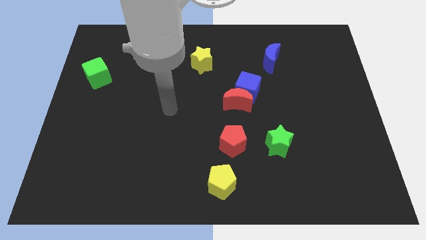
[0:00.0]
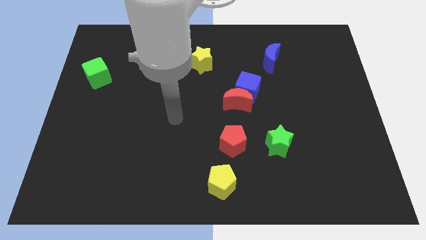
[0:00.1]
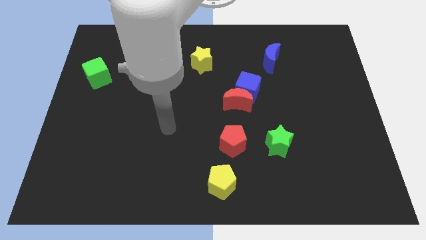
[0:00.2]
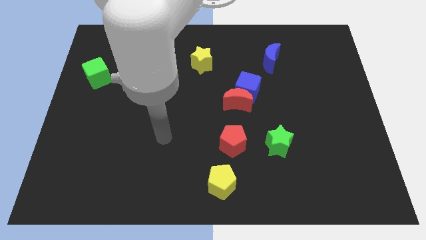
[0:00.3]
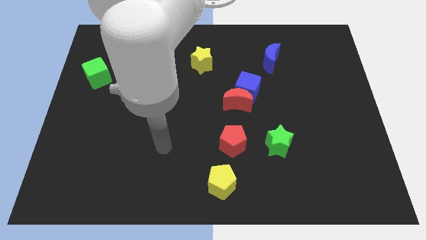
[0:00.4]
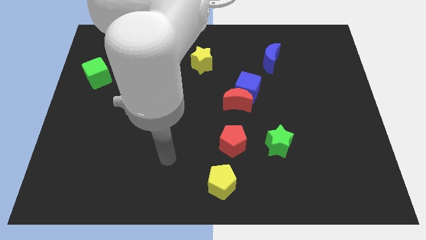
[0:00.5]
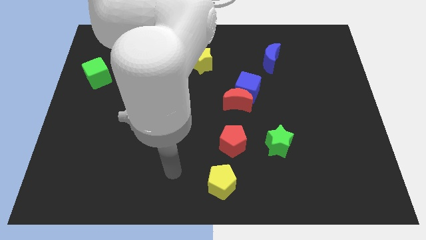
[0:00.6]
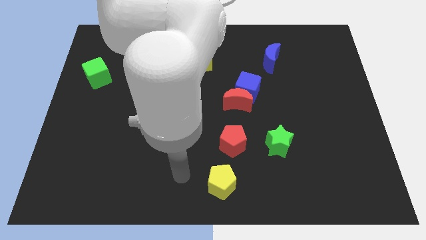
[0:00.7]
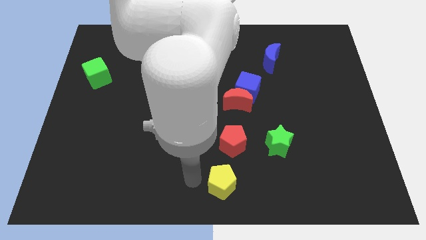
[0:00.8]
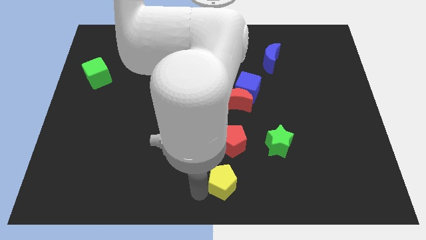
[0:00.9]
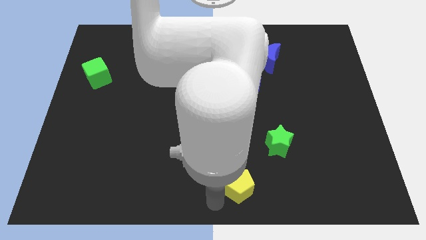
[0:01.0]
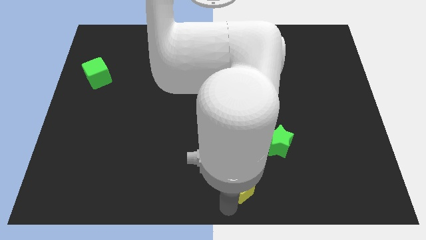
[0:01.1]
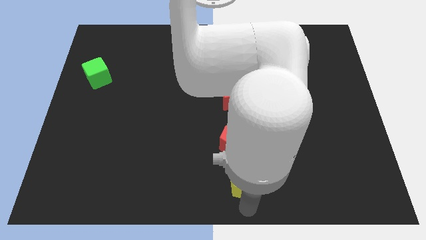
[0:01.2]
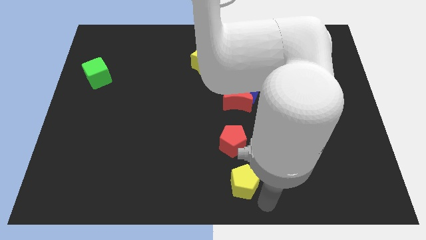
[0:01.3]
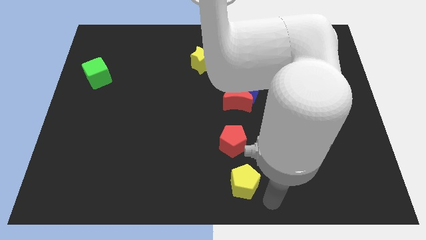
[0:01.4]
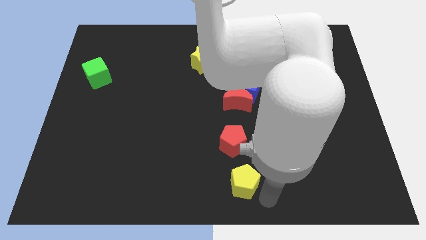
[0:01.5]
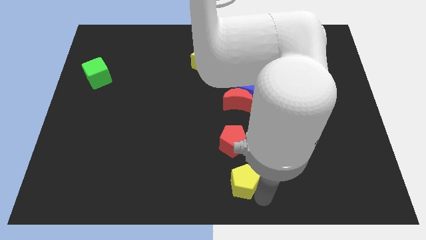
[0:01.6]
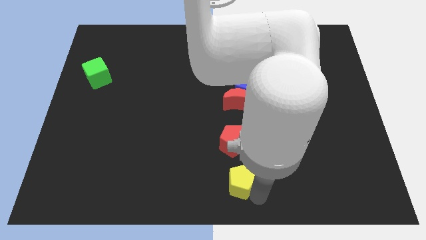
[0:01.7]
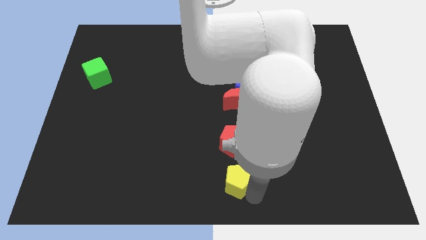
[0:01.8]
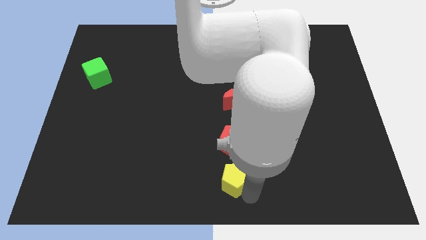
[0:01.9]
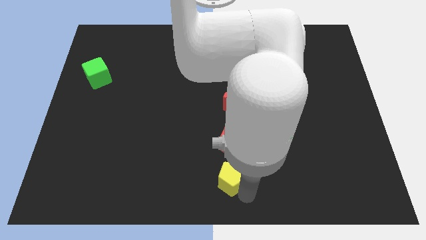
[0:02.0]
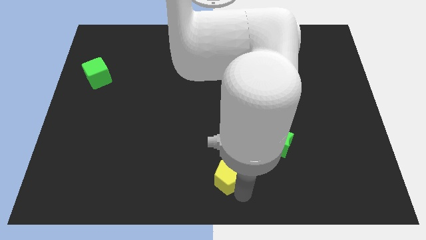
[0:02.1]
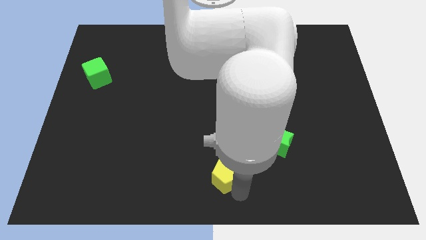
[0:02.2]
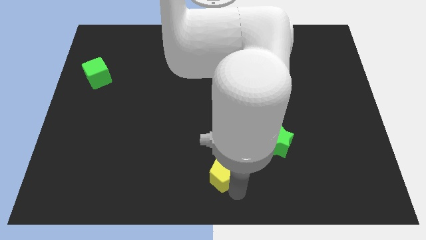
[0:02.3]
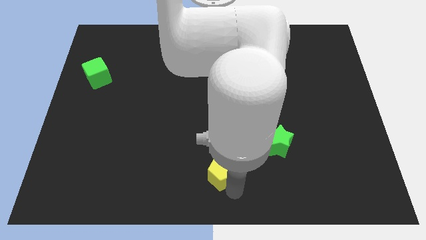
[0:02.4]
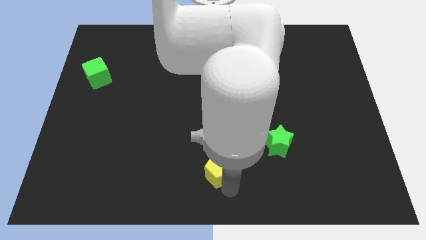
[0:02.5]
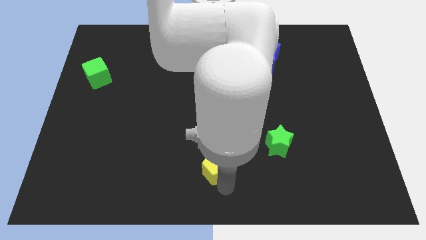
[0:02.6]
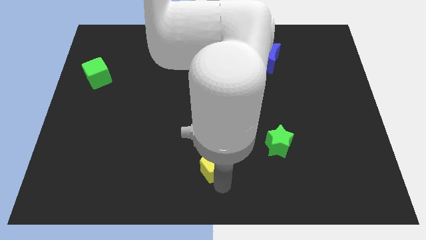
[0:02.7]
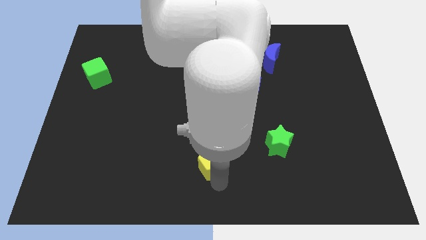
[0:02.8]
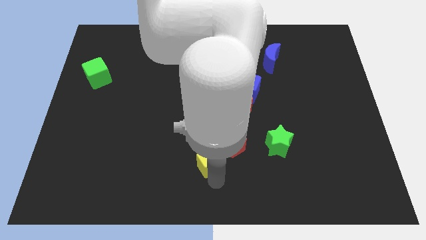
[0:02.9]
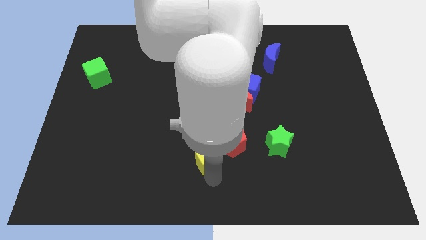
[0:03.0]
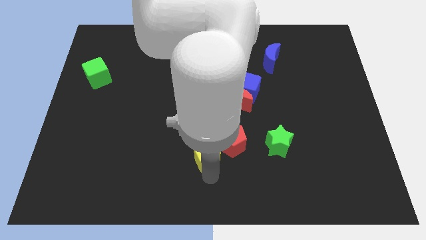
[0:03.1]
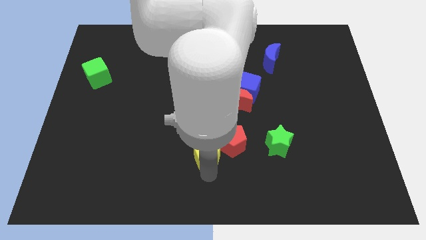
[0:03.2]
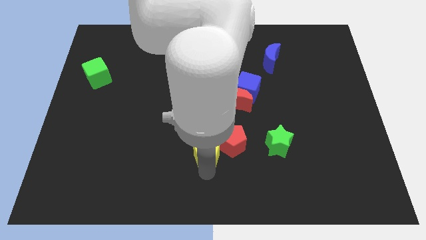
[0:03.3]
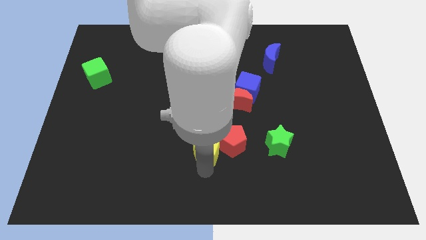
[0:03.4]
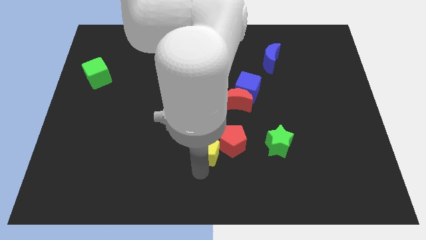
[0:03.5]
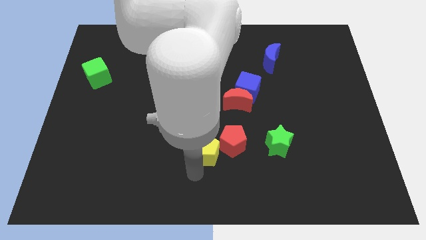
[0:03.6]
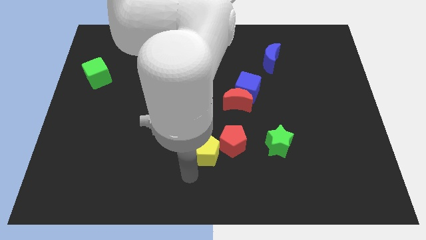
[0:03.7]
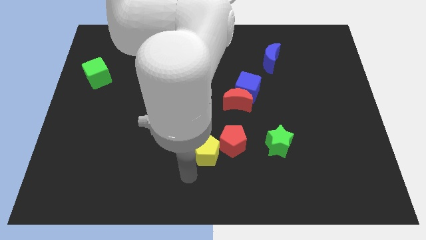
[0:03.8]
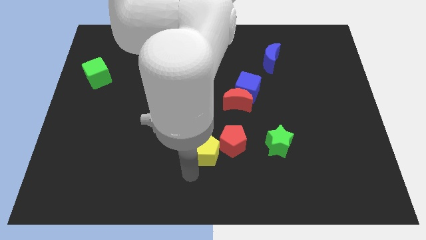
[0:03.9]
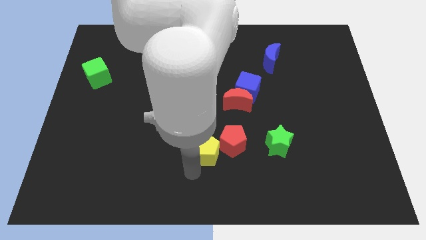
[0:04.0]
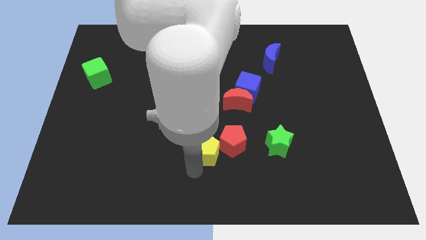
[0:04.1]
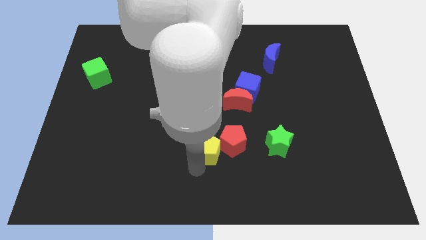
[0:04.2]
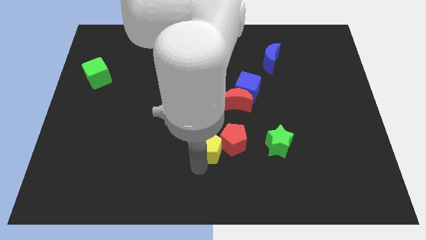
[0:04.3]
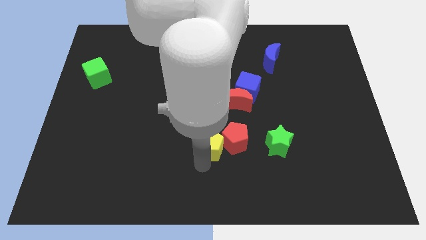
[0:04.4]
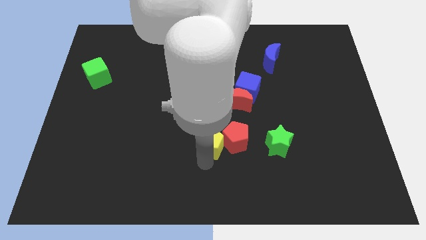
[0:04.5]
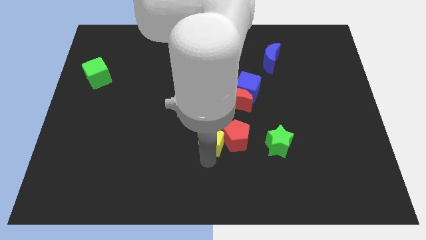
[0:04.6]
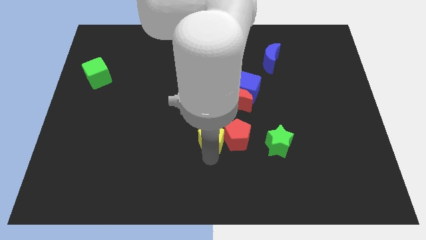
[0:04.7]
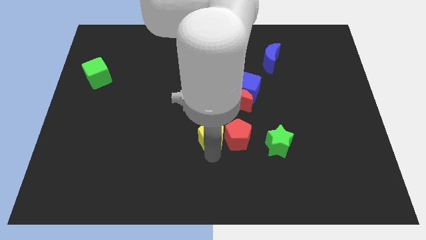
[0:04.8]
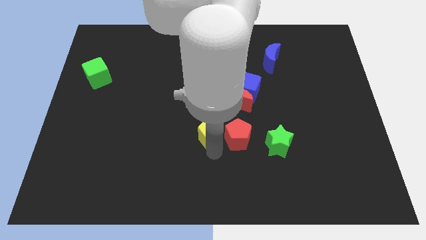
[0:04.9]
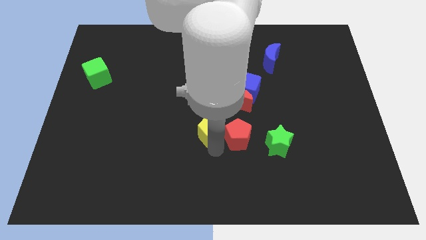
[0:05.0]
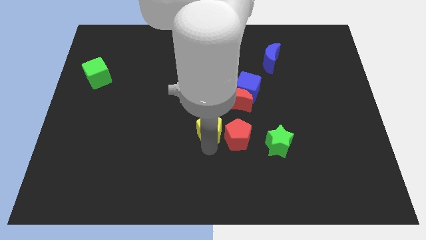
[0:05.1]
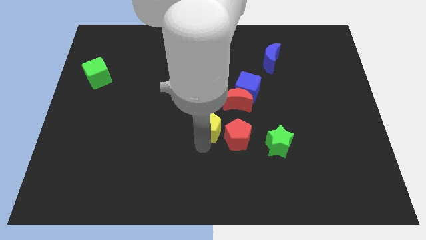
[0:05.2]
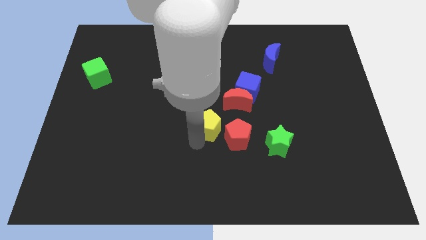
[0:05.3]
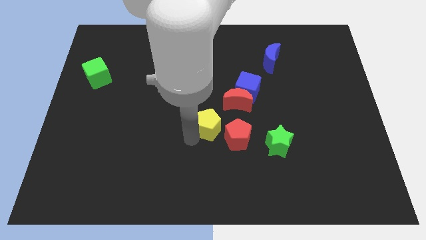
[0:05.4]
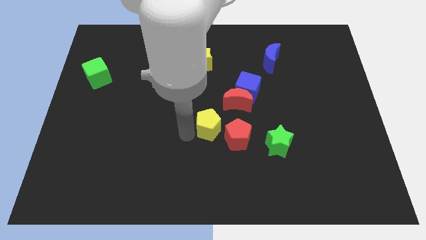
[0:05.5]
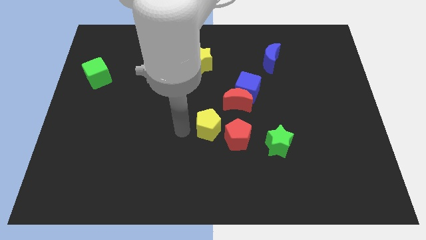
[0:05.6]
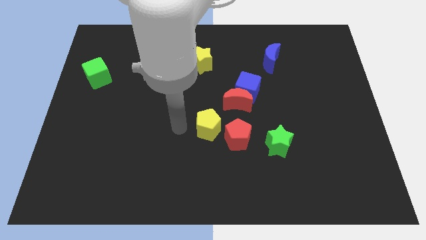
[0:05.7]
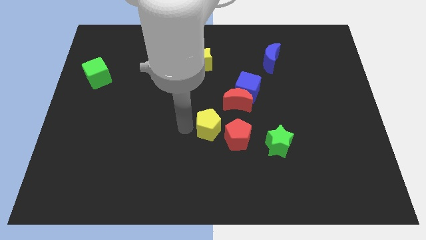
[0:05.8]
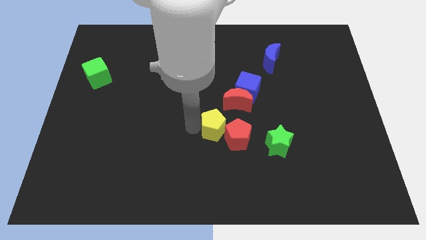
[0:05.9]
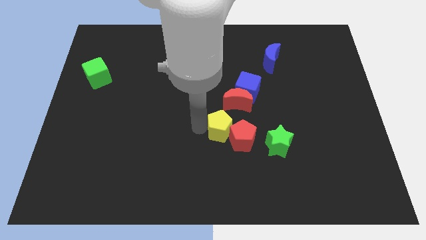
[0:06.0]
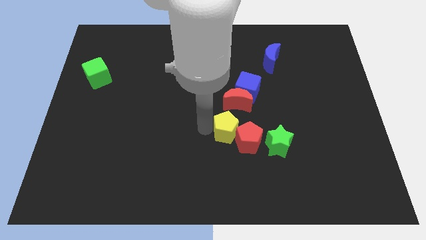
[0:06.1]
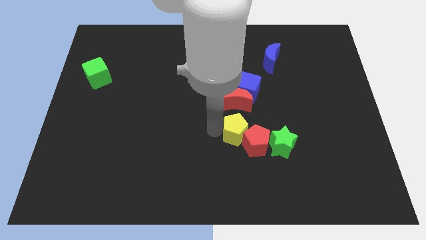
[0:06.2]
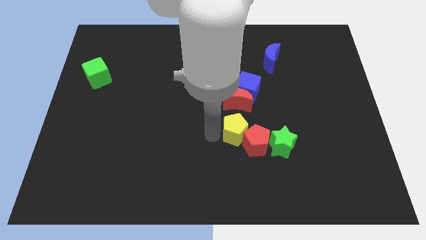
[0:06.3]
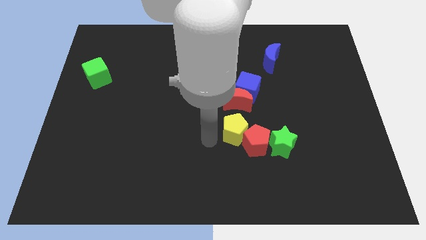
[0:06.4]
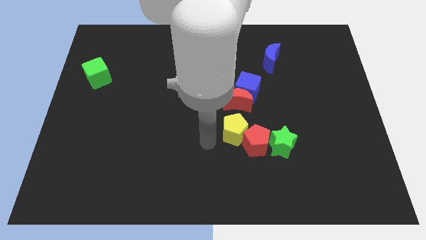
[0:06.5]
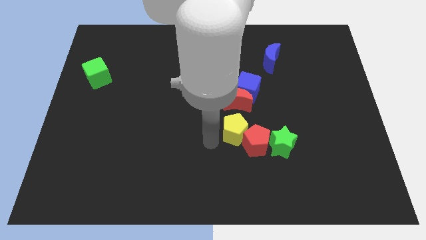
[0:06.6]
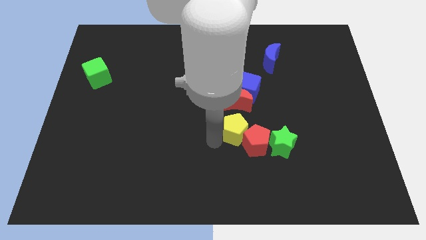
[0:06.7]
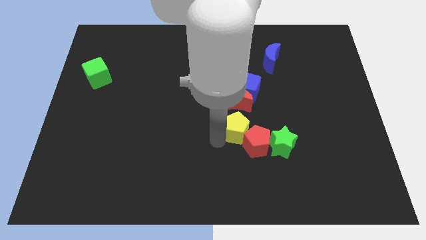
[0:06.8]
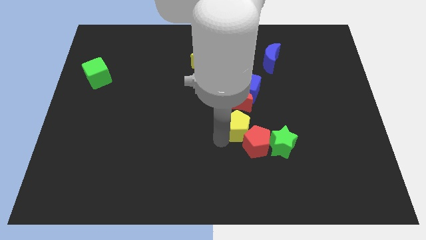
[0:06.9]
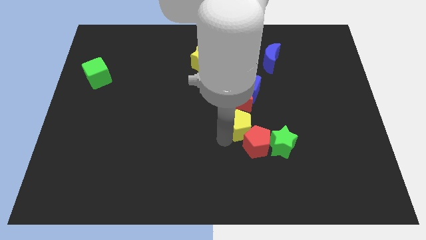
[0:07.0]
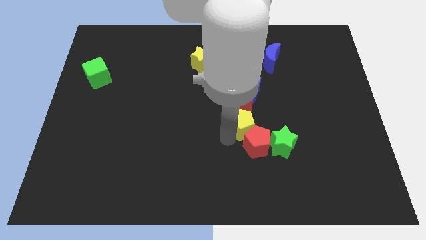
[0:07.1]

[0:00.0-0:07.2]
move the yellow pentagon to the bottom right of the red moon
